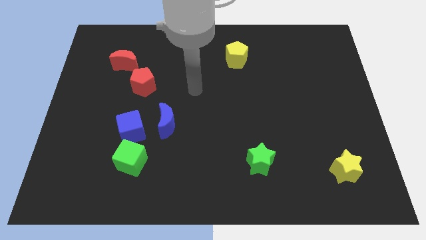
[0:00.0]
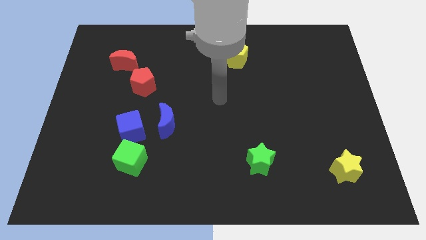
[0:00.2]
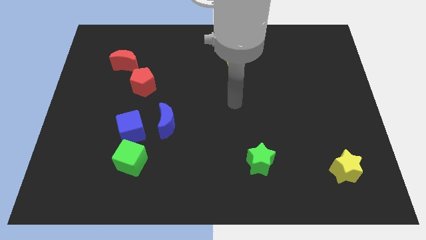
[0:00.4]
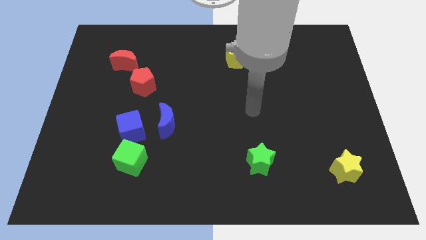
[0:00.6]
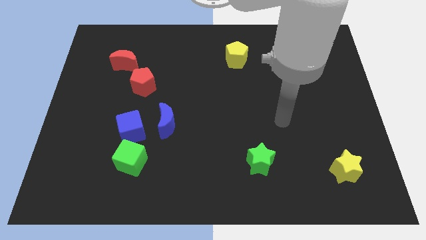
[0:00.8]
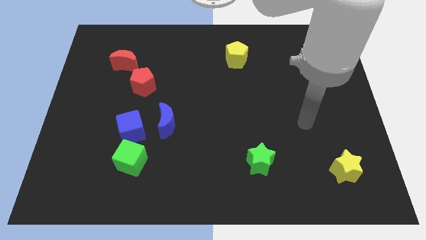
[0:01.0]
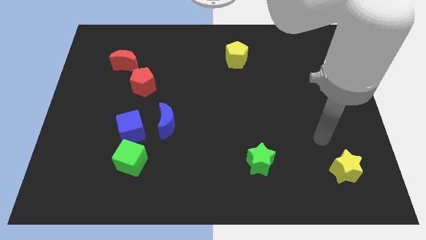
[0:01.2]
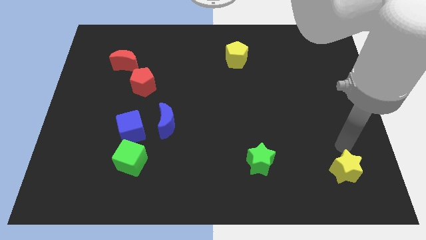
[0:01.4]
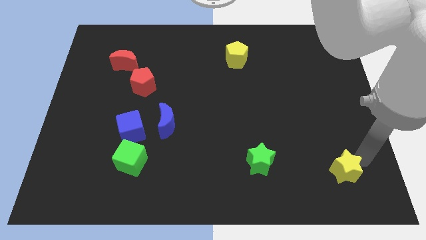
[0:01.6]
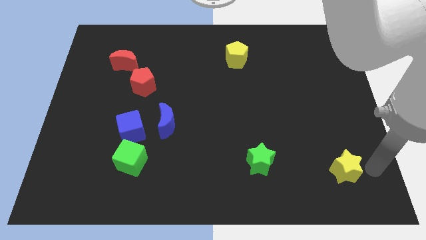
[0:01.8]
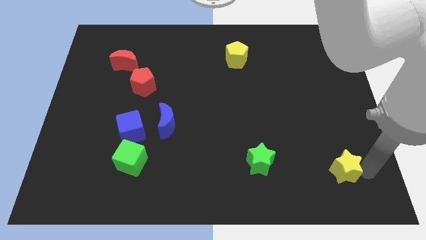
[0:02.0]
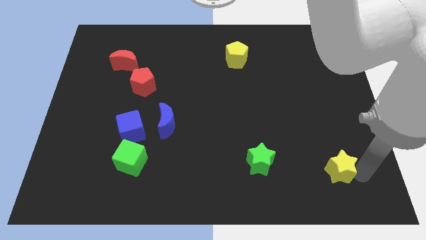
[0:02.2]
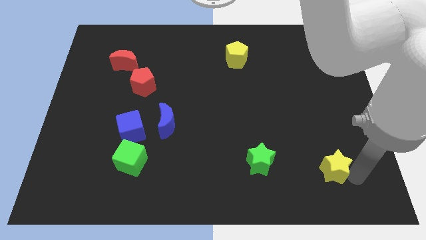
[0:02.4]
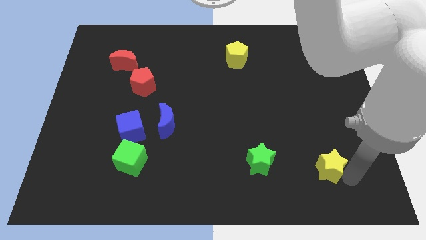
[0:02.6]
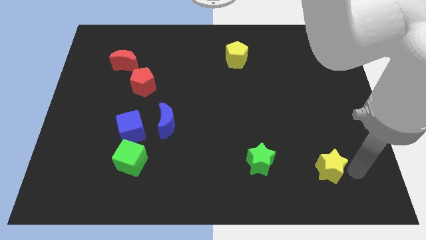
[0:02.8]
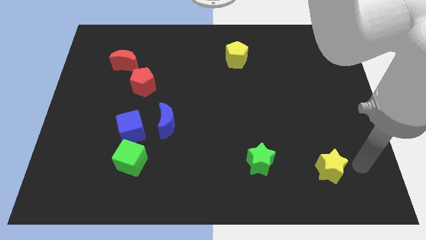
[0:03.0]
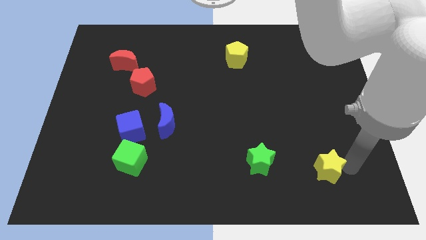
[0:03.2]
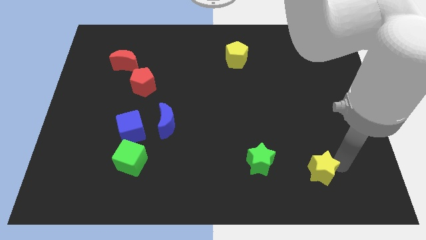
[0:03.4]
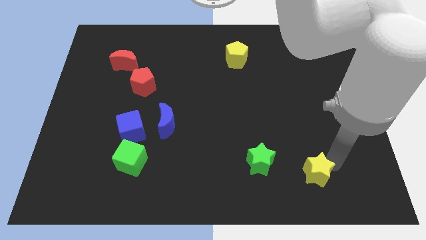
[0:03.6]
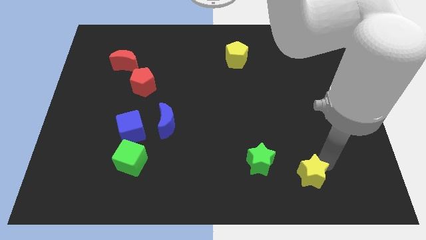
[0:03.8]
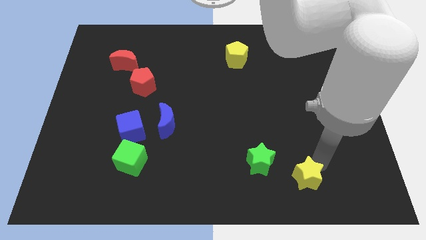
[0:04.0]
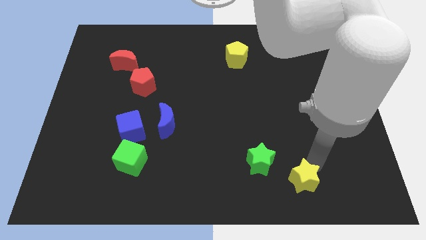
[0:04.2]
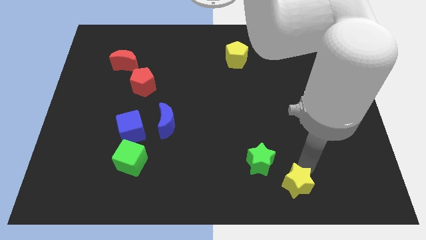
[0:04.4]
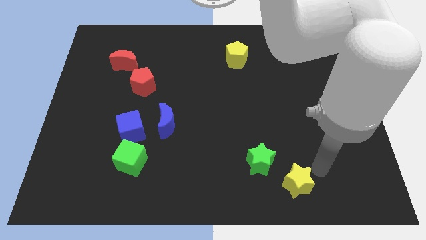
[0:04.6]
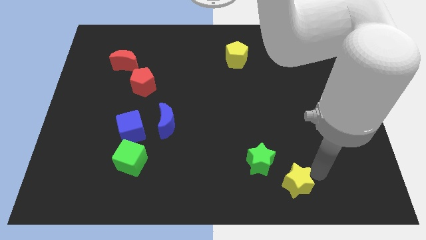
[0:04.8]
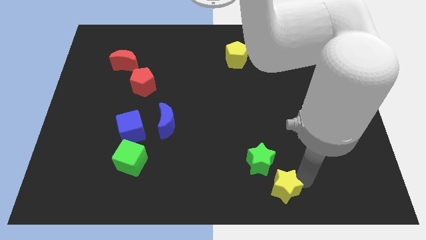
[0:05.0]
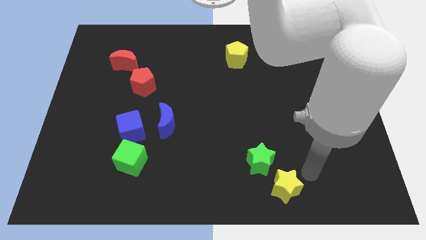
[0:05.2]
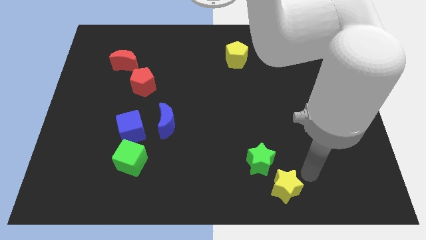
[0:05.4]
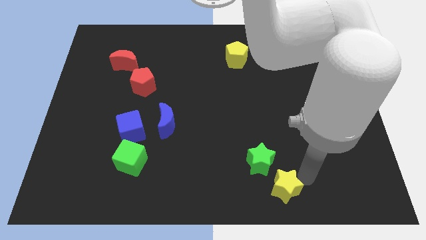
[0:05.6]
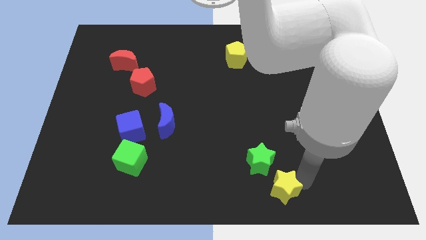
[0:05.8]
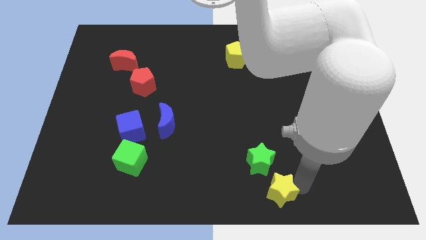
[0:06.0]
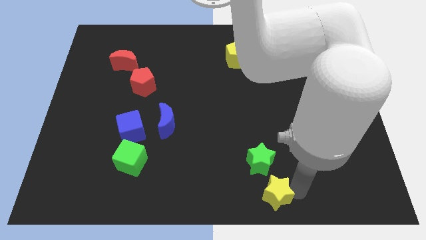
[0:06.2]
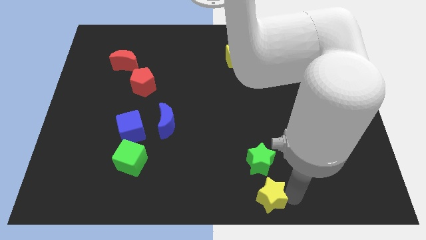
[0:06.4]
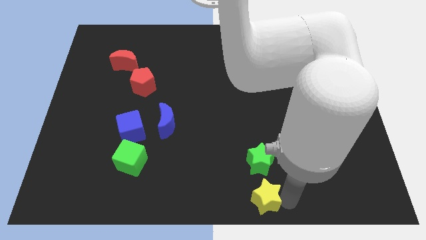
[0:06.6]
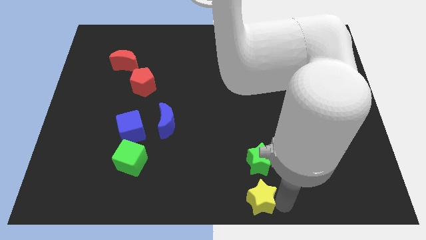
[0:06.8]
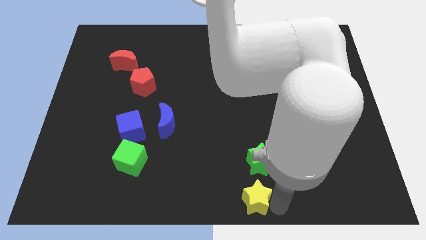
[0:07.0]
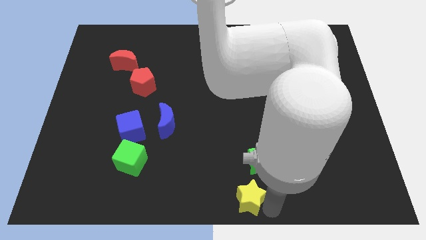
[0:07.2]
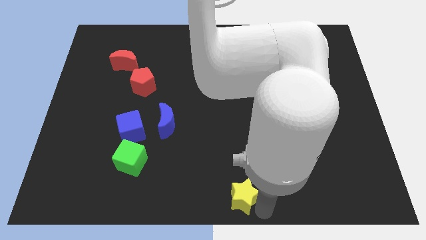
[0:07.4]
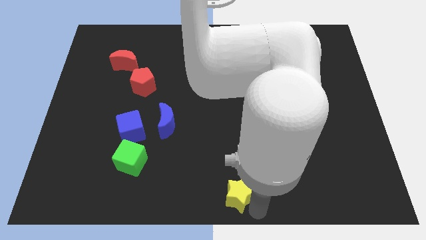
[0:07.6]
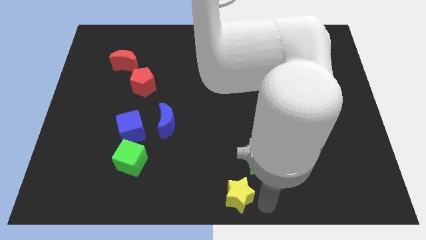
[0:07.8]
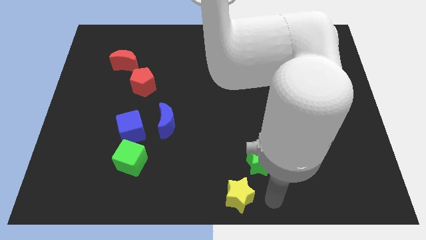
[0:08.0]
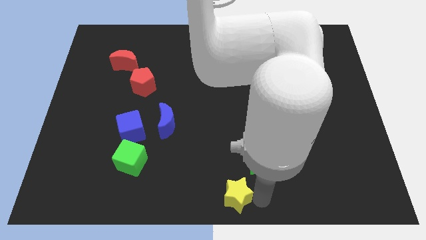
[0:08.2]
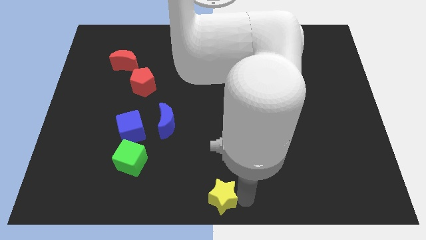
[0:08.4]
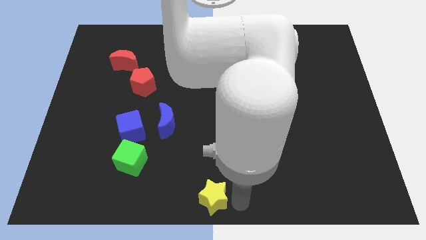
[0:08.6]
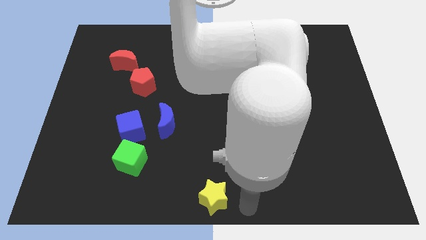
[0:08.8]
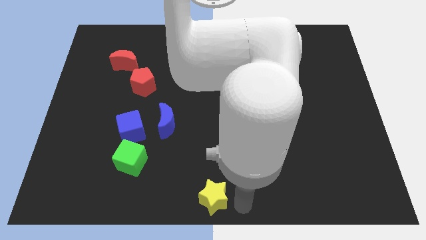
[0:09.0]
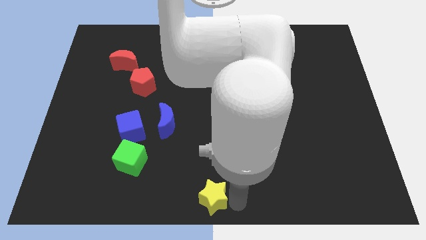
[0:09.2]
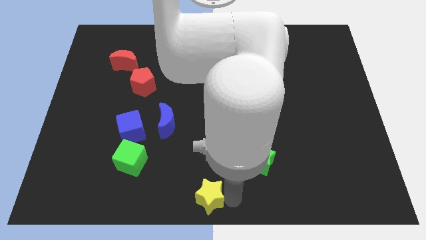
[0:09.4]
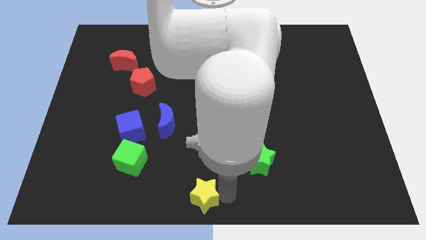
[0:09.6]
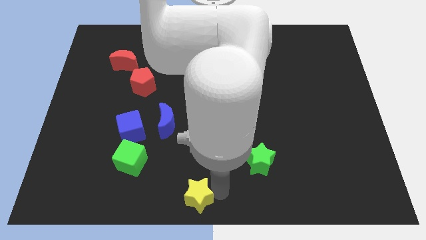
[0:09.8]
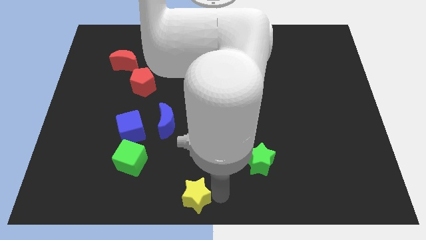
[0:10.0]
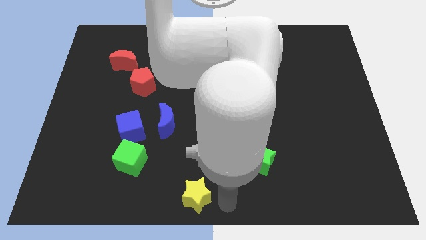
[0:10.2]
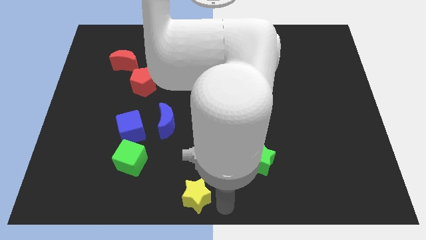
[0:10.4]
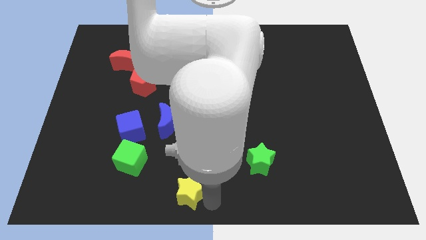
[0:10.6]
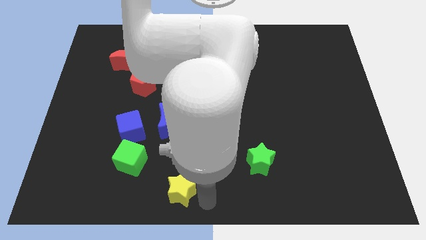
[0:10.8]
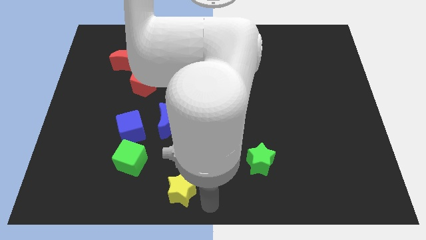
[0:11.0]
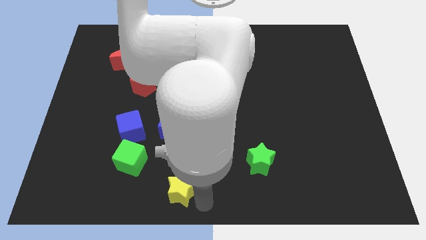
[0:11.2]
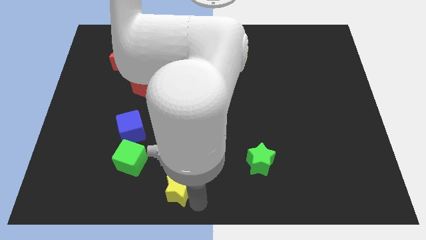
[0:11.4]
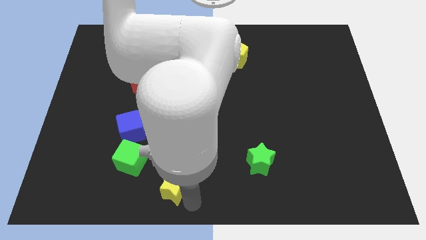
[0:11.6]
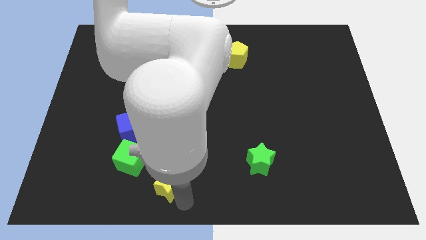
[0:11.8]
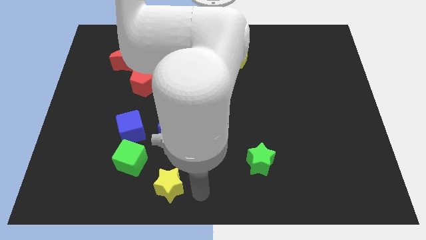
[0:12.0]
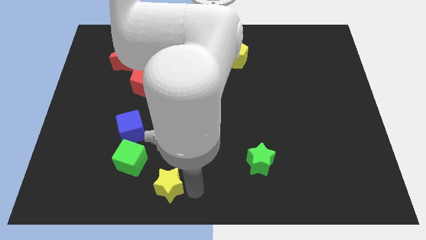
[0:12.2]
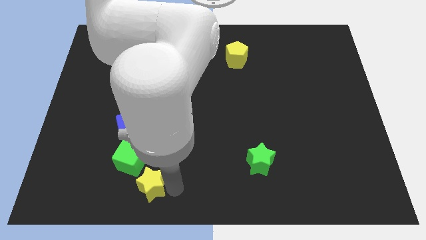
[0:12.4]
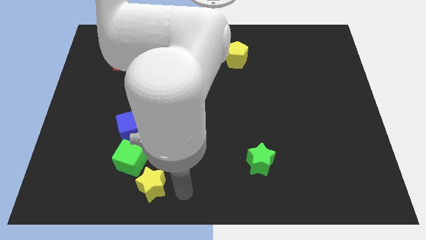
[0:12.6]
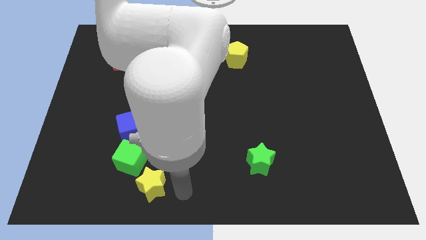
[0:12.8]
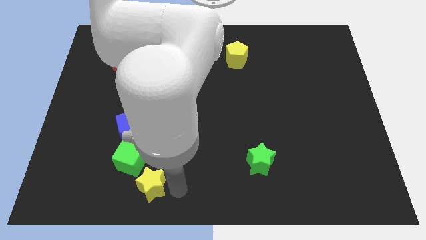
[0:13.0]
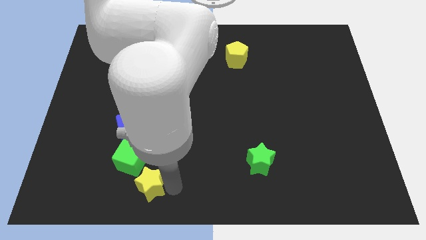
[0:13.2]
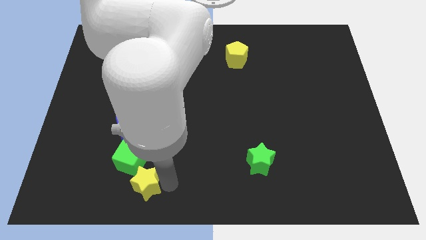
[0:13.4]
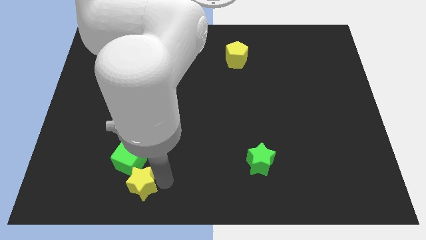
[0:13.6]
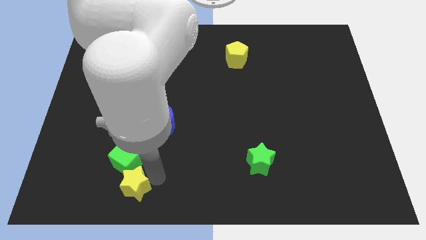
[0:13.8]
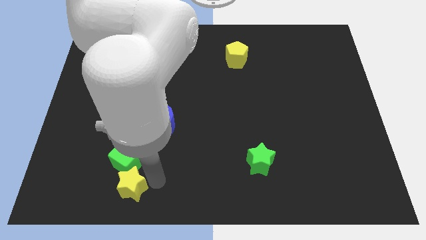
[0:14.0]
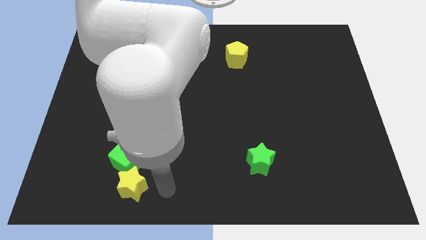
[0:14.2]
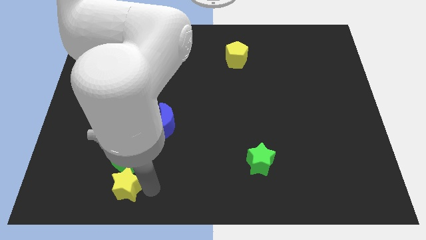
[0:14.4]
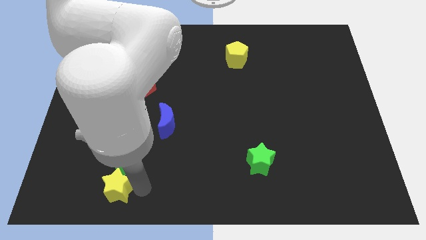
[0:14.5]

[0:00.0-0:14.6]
put the yellow star diagonally down and to the left of the green cube
